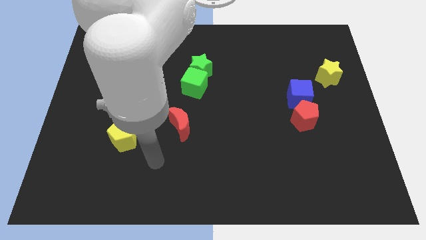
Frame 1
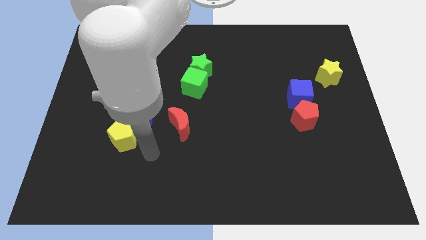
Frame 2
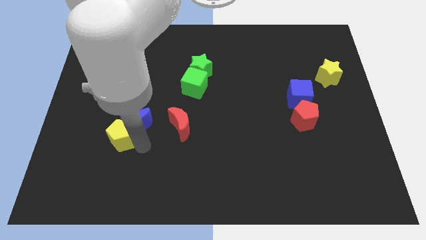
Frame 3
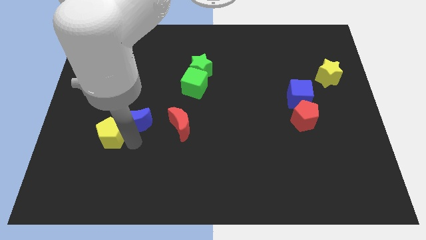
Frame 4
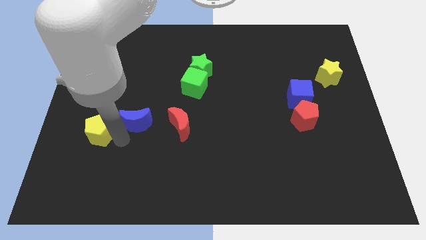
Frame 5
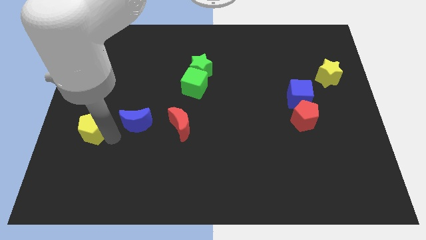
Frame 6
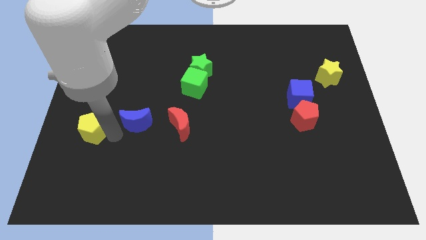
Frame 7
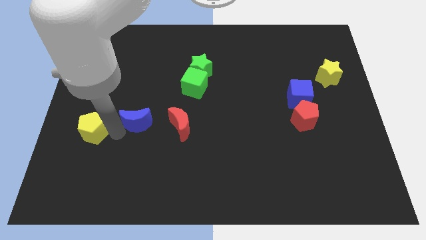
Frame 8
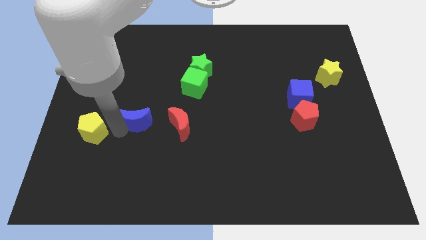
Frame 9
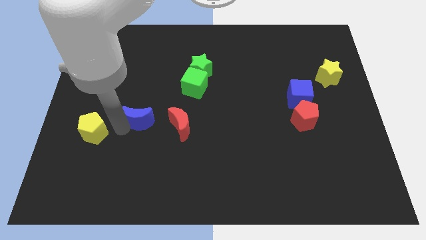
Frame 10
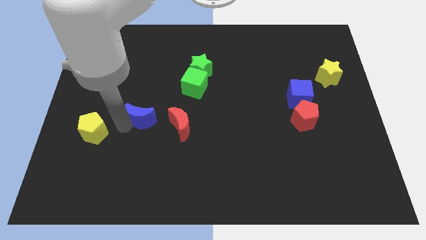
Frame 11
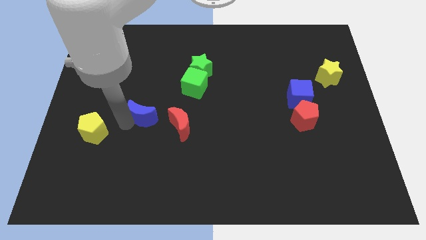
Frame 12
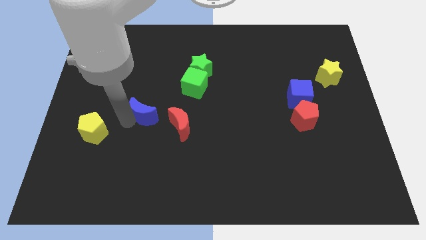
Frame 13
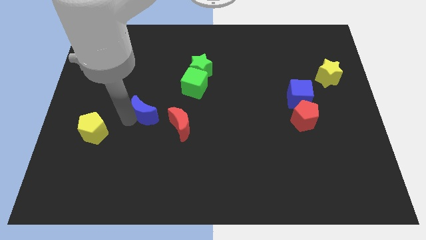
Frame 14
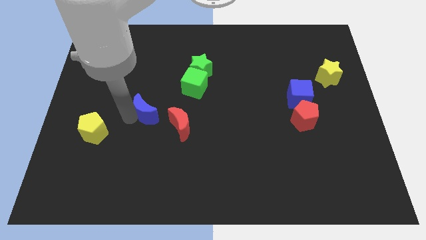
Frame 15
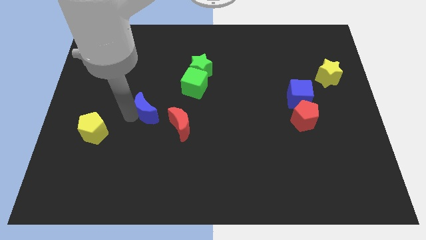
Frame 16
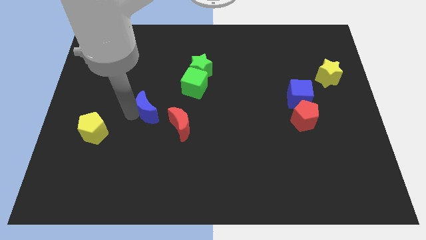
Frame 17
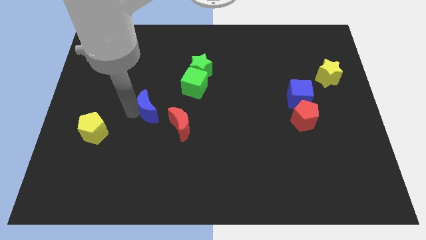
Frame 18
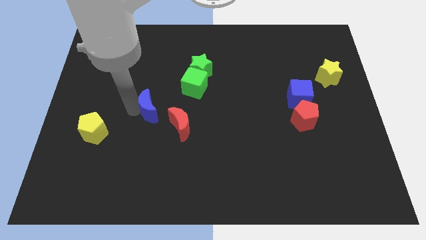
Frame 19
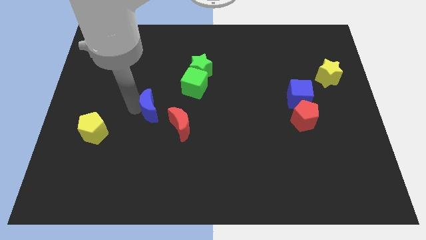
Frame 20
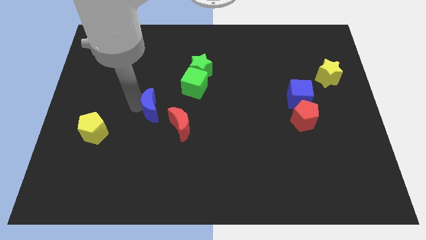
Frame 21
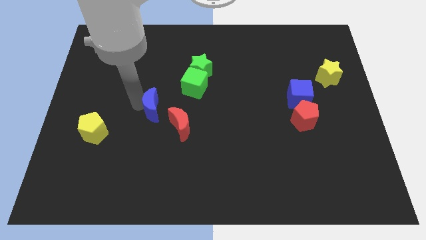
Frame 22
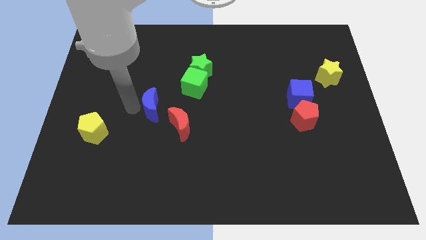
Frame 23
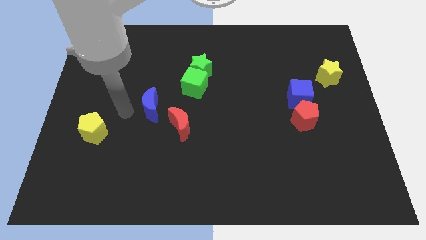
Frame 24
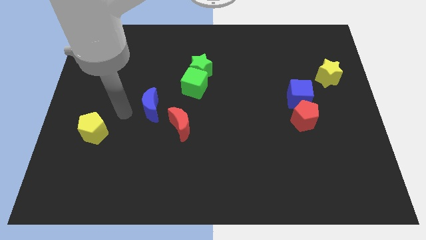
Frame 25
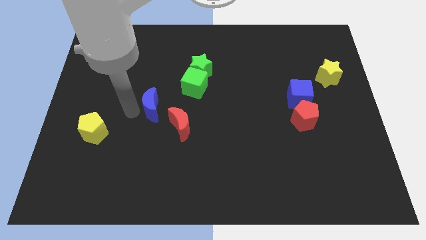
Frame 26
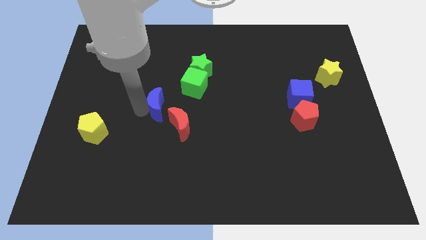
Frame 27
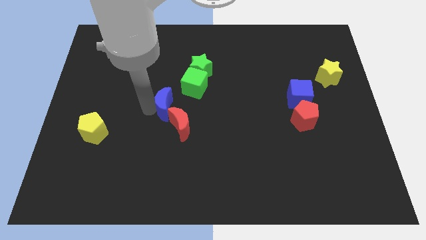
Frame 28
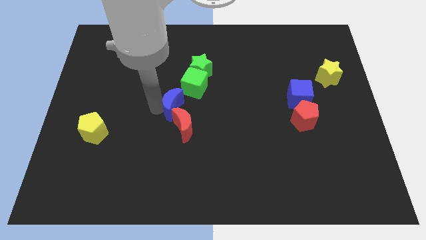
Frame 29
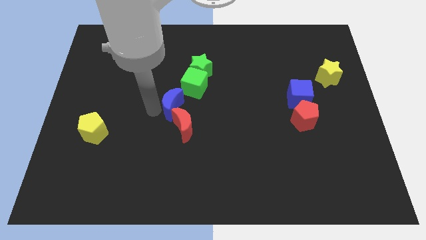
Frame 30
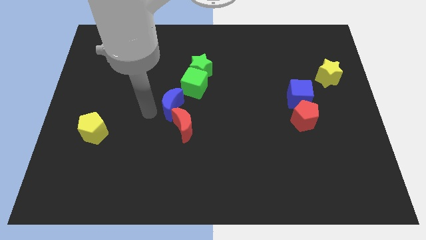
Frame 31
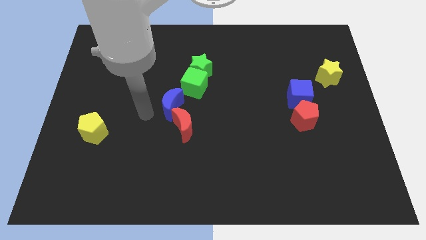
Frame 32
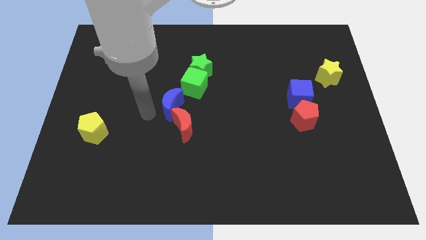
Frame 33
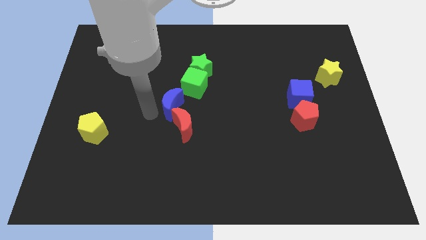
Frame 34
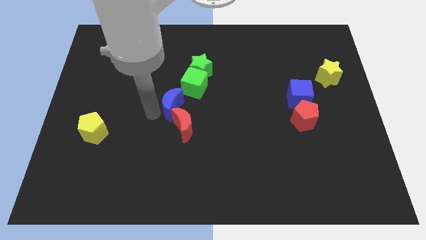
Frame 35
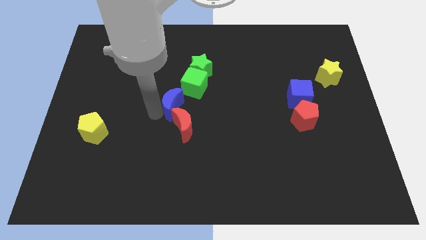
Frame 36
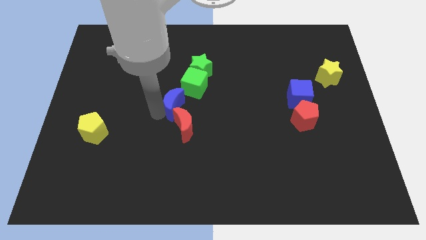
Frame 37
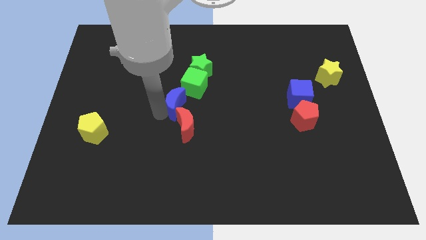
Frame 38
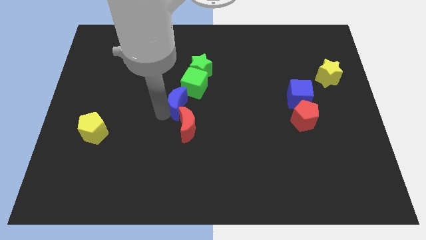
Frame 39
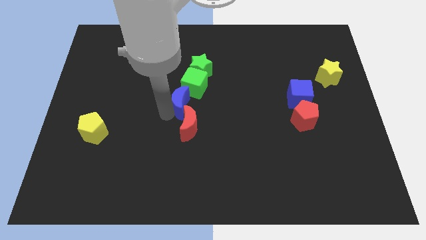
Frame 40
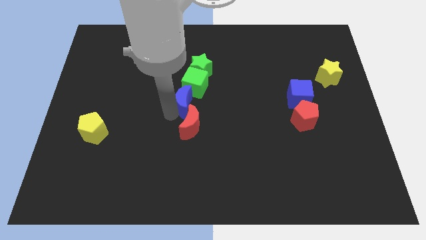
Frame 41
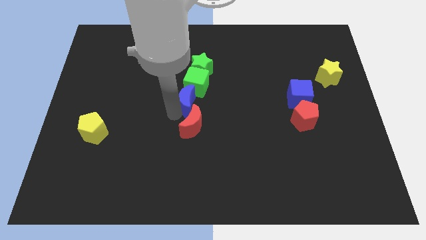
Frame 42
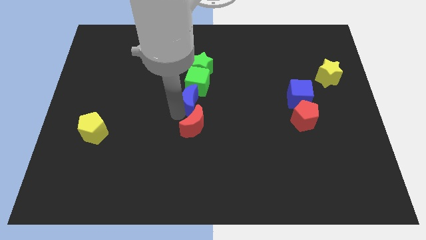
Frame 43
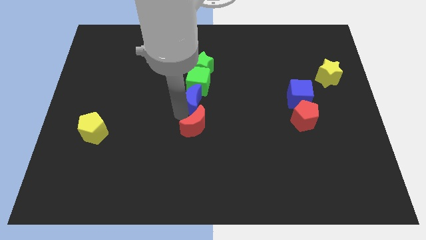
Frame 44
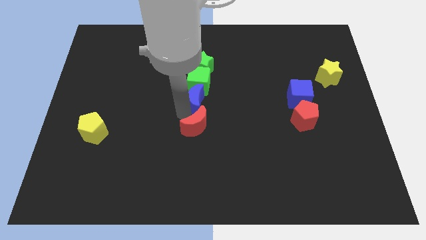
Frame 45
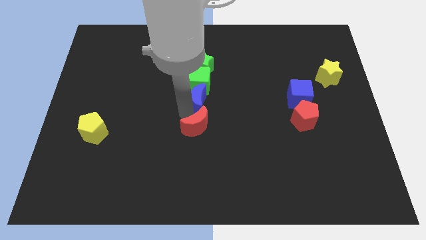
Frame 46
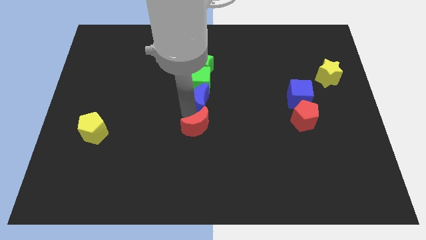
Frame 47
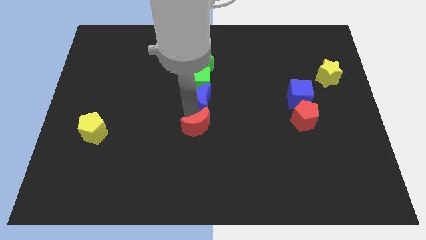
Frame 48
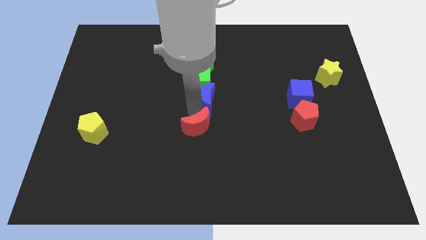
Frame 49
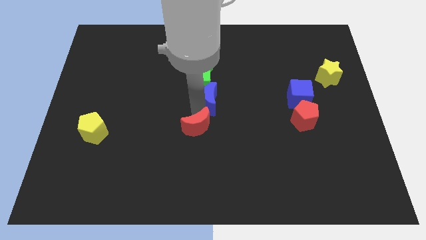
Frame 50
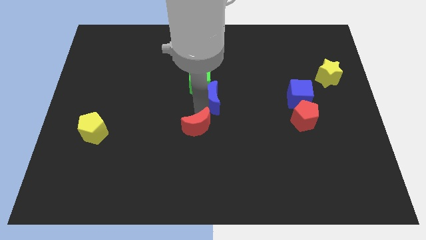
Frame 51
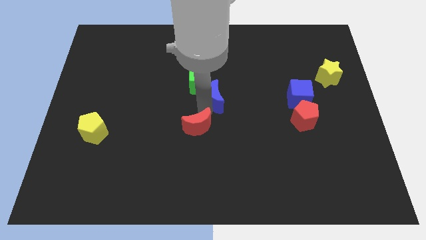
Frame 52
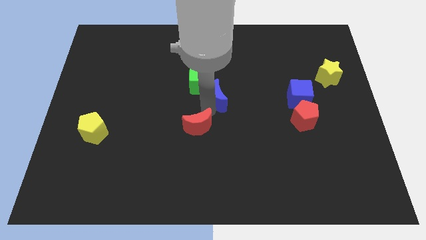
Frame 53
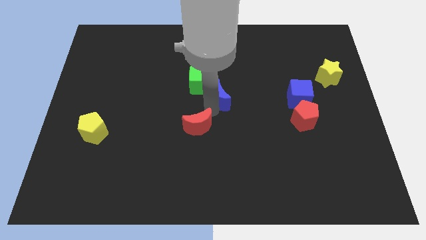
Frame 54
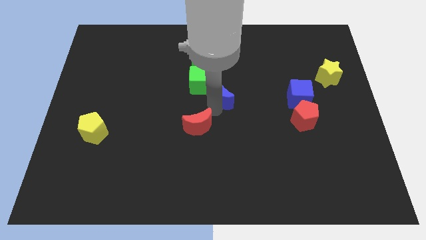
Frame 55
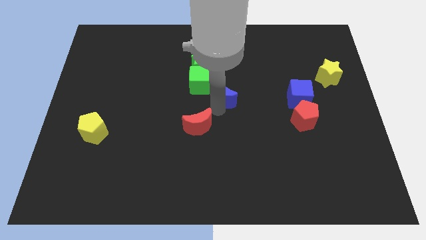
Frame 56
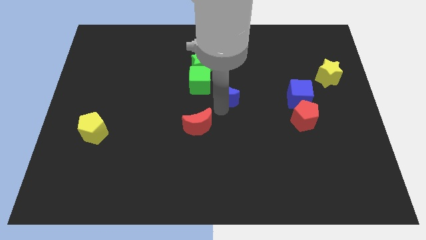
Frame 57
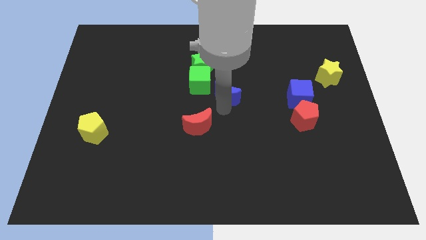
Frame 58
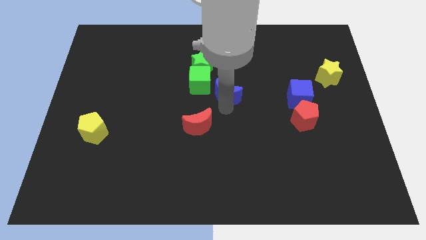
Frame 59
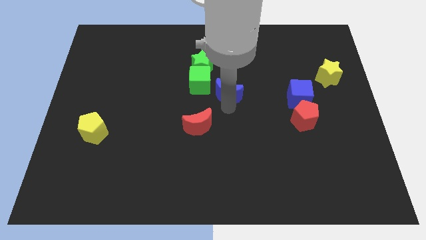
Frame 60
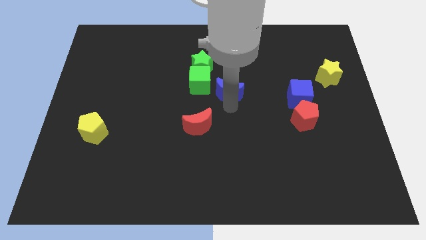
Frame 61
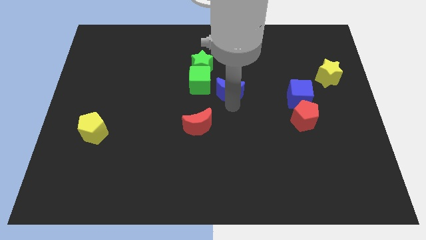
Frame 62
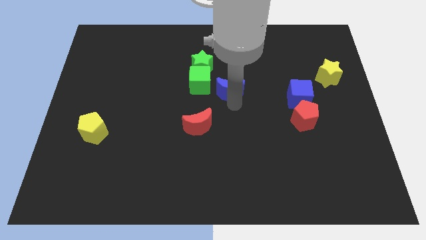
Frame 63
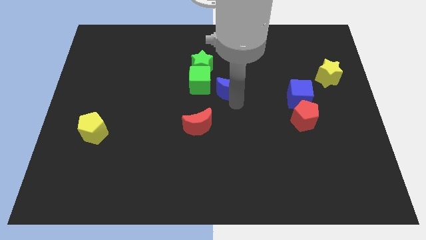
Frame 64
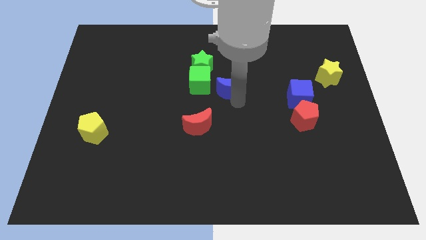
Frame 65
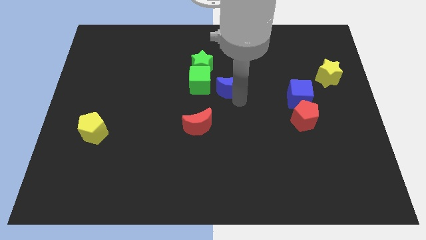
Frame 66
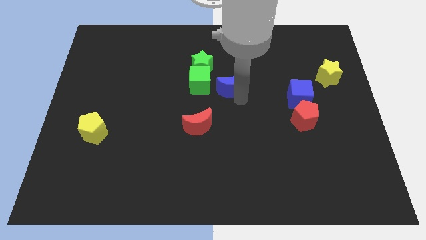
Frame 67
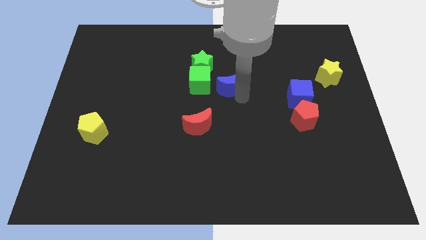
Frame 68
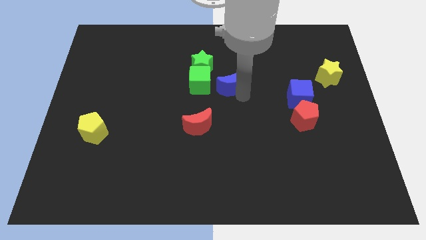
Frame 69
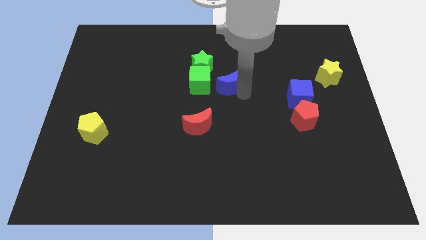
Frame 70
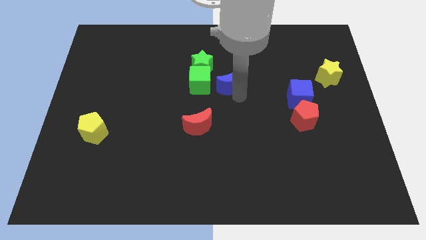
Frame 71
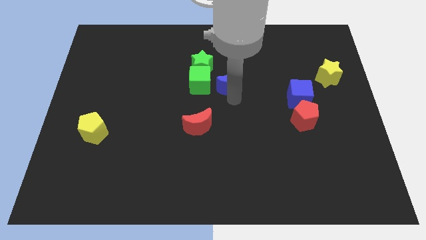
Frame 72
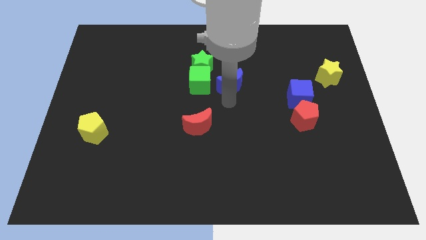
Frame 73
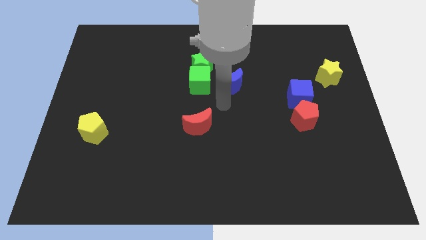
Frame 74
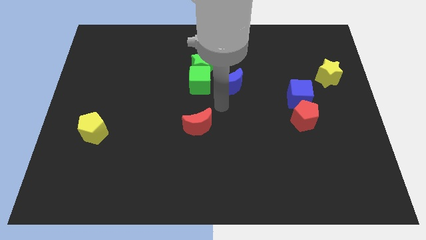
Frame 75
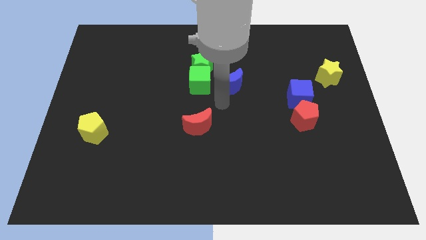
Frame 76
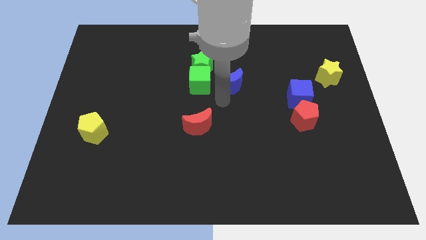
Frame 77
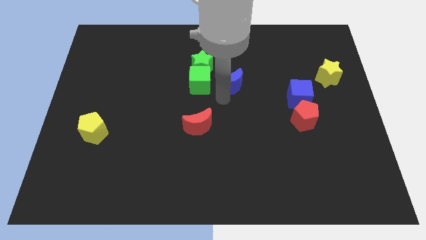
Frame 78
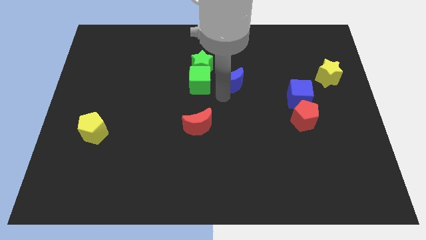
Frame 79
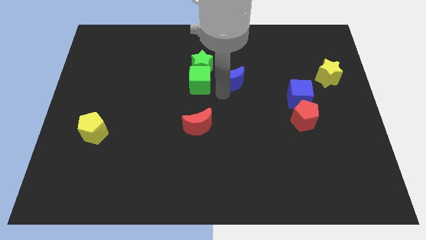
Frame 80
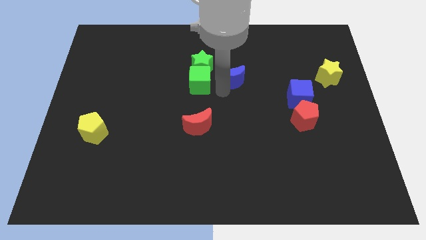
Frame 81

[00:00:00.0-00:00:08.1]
push the blue moon just right of the green star
